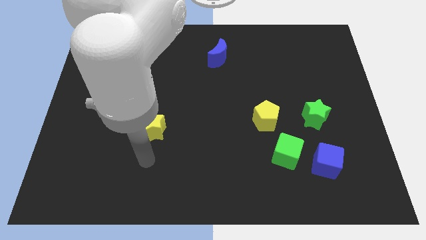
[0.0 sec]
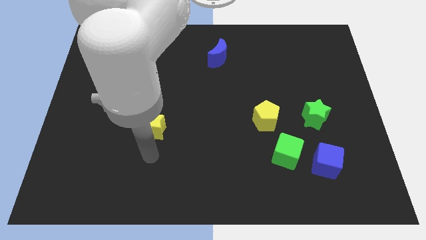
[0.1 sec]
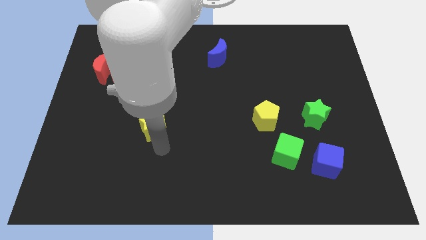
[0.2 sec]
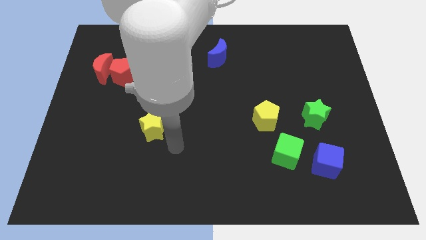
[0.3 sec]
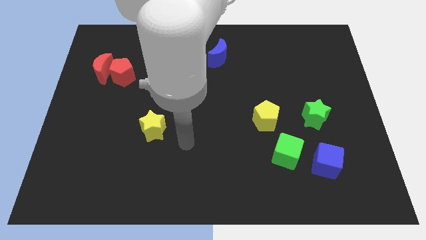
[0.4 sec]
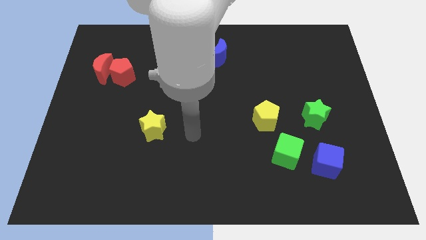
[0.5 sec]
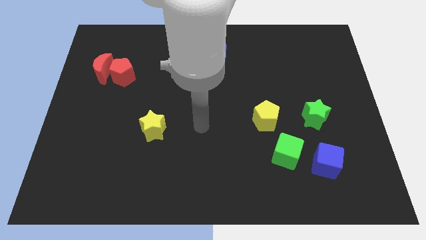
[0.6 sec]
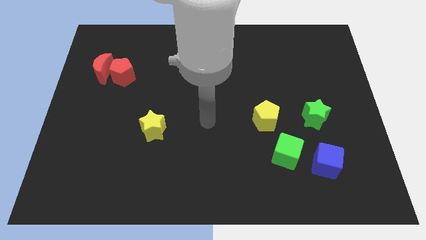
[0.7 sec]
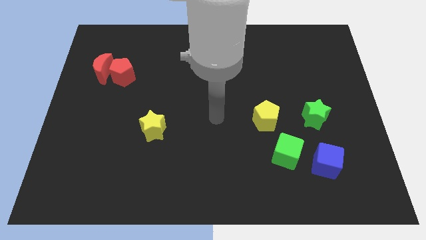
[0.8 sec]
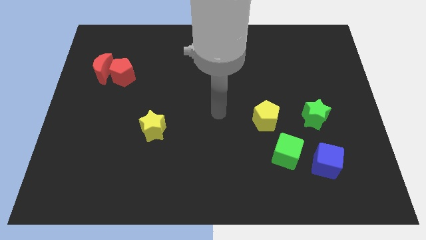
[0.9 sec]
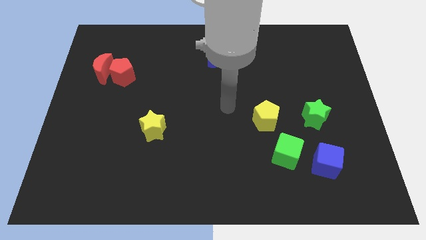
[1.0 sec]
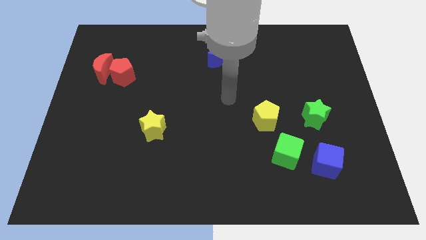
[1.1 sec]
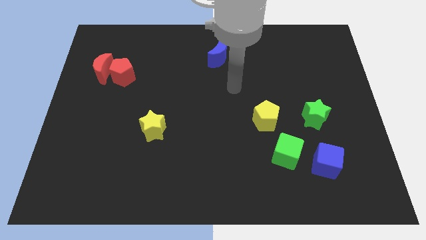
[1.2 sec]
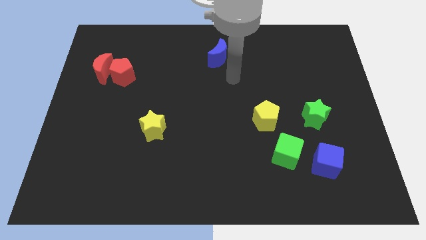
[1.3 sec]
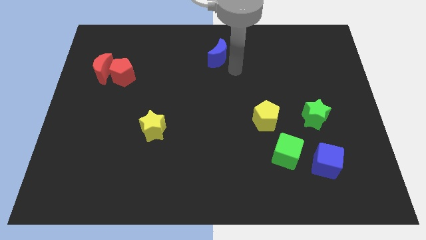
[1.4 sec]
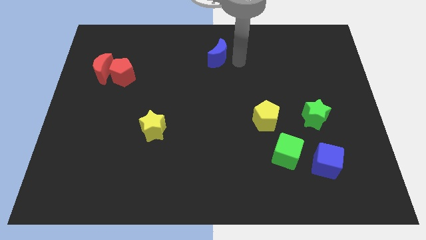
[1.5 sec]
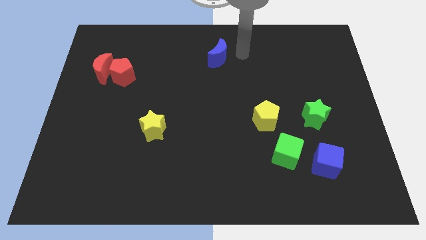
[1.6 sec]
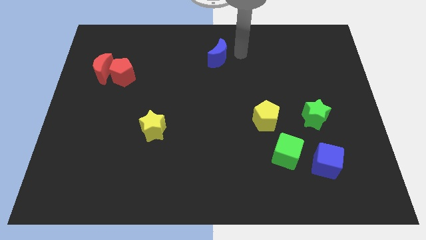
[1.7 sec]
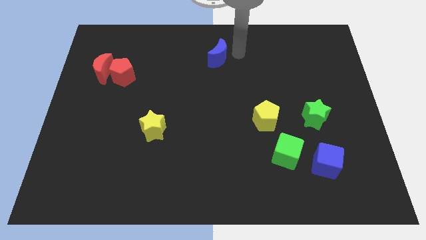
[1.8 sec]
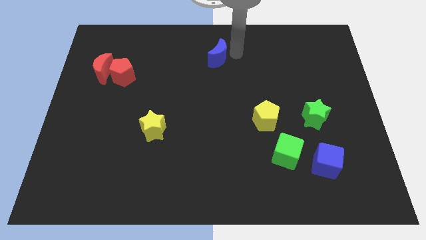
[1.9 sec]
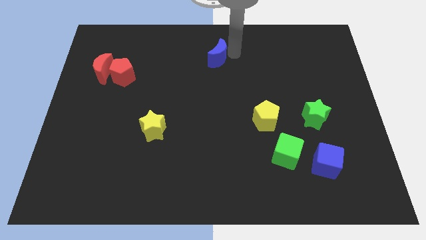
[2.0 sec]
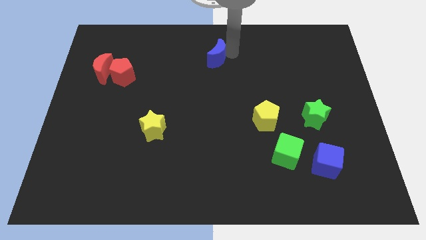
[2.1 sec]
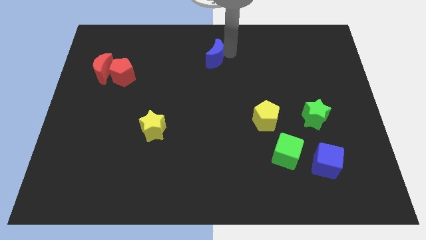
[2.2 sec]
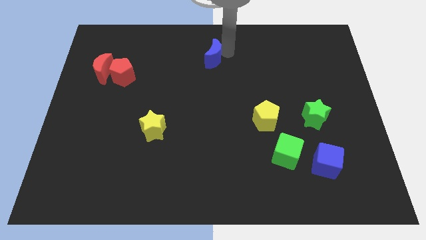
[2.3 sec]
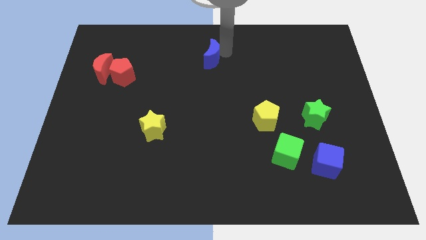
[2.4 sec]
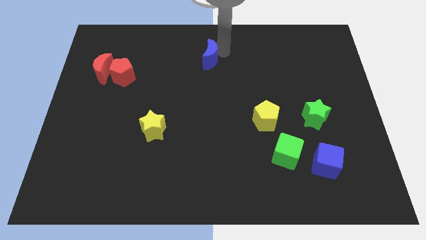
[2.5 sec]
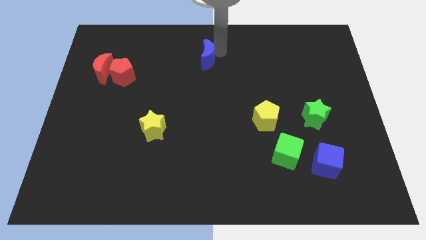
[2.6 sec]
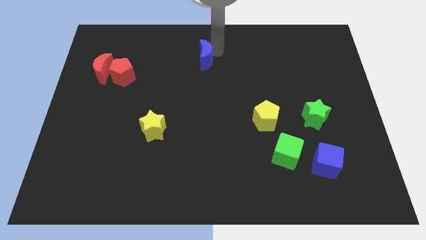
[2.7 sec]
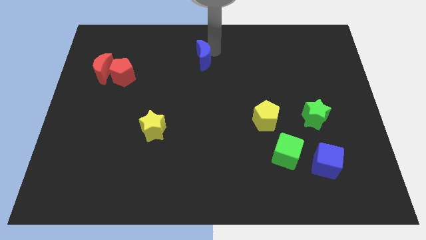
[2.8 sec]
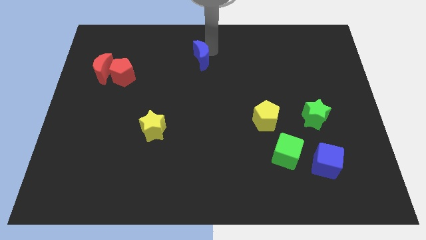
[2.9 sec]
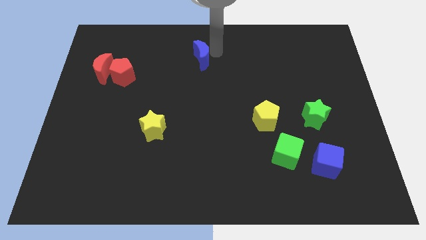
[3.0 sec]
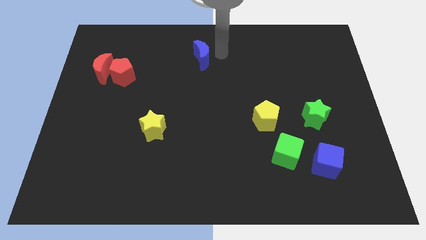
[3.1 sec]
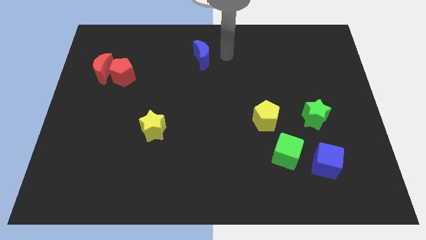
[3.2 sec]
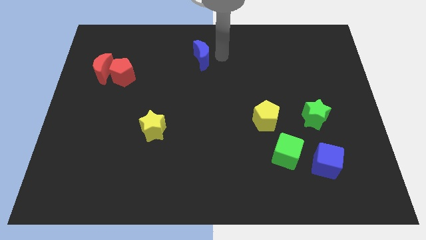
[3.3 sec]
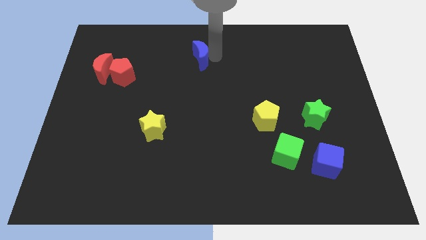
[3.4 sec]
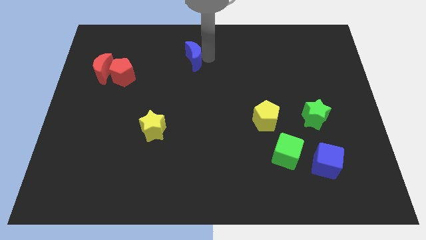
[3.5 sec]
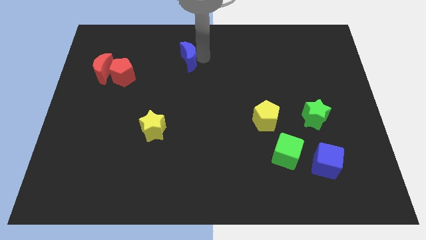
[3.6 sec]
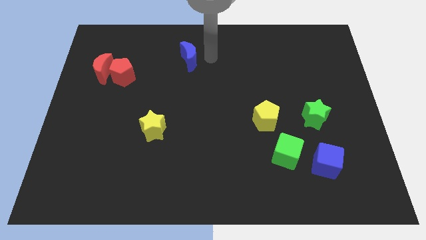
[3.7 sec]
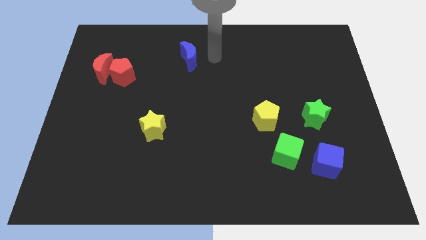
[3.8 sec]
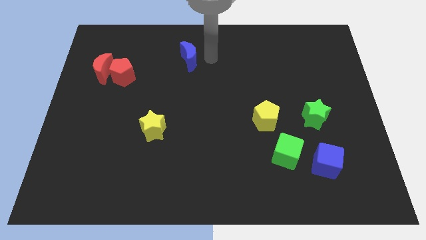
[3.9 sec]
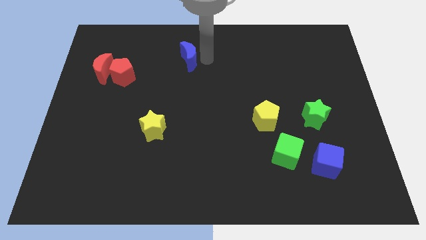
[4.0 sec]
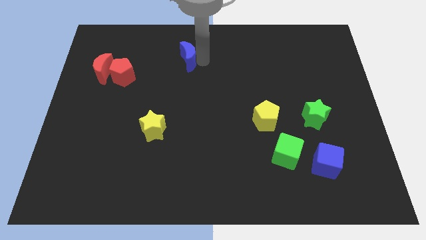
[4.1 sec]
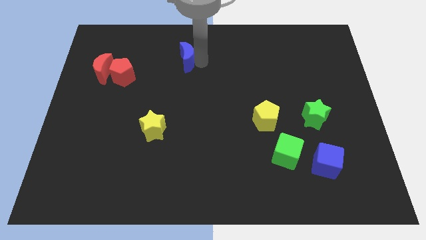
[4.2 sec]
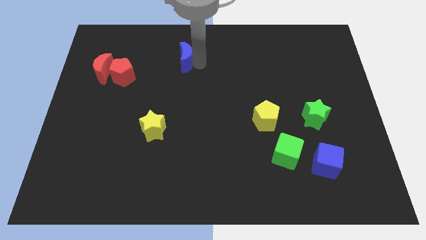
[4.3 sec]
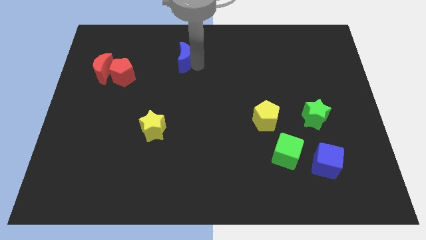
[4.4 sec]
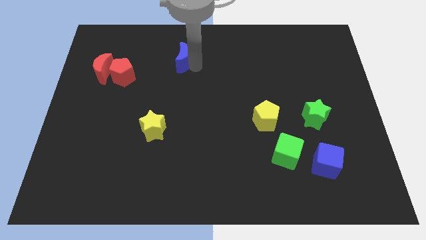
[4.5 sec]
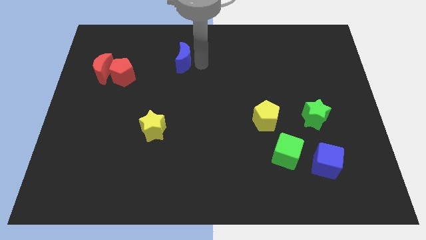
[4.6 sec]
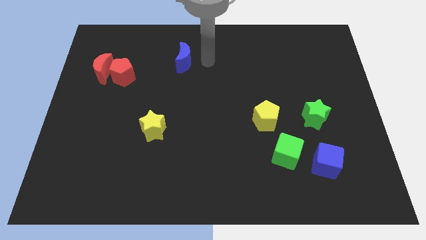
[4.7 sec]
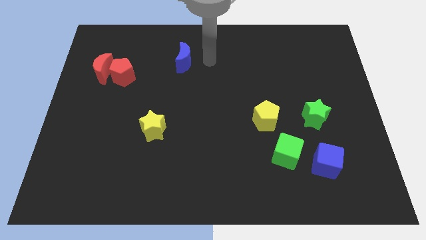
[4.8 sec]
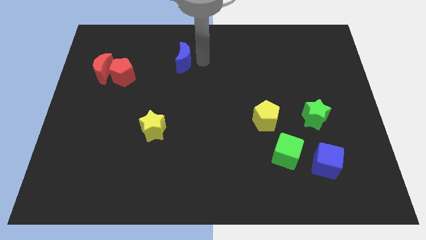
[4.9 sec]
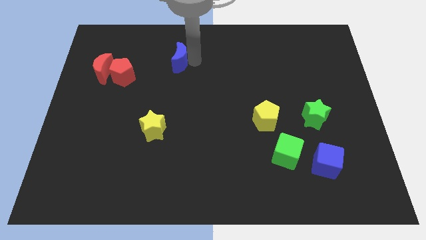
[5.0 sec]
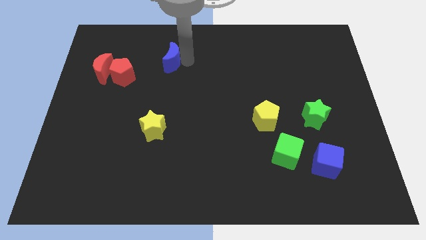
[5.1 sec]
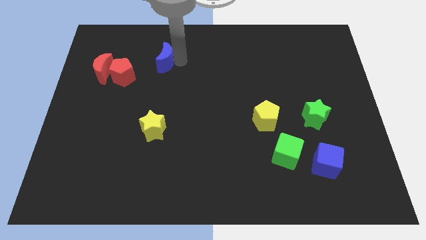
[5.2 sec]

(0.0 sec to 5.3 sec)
move the blue moon to the top right side of the red pentagon

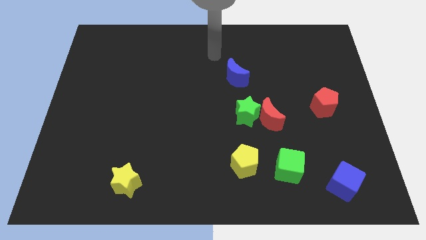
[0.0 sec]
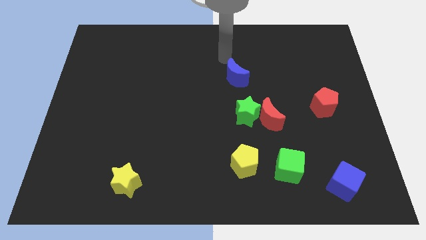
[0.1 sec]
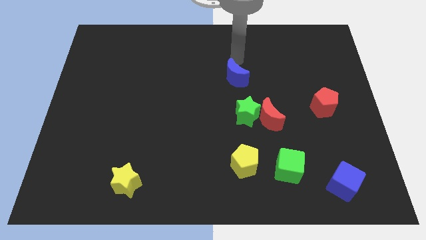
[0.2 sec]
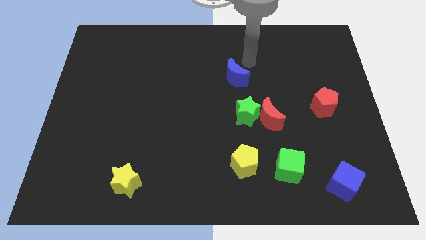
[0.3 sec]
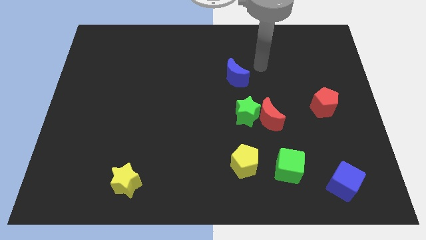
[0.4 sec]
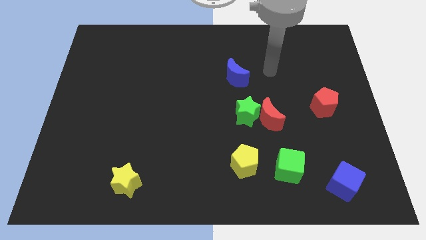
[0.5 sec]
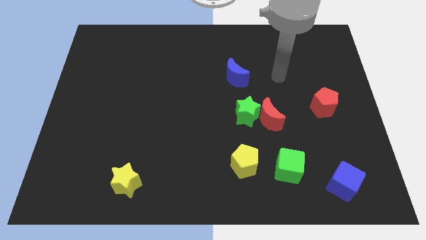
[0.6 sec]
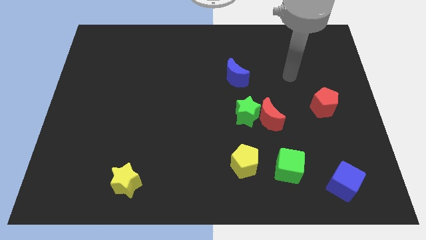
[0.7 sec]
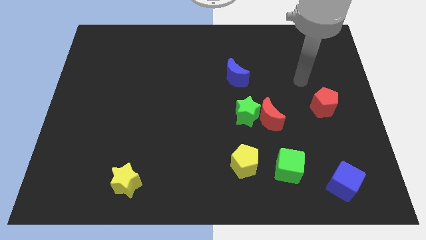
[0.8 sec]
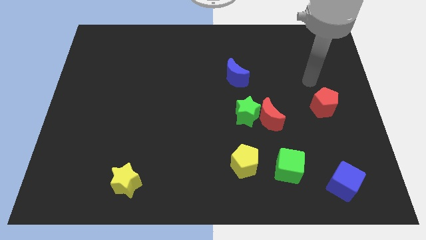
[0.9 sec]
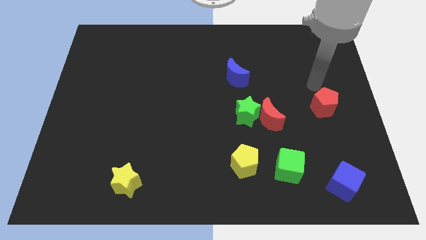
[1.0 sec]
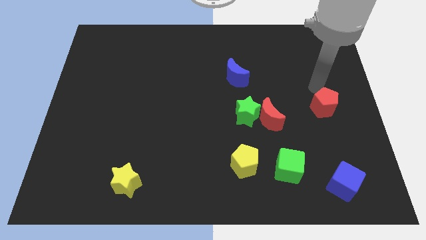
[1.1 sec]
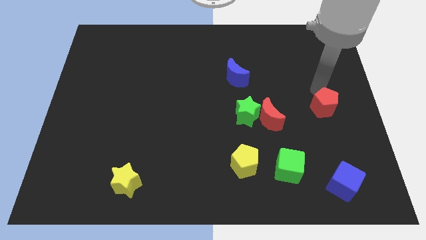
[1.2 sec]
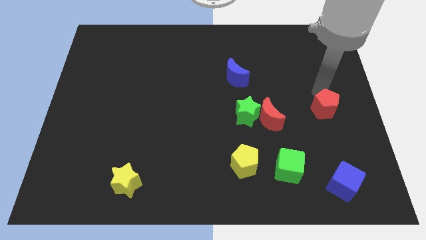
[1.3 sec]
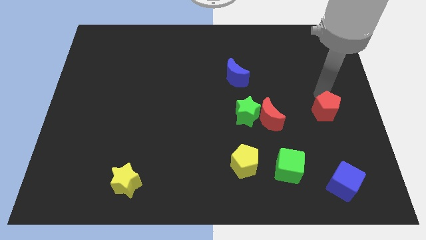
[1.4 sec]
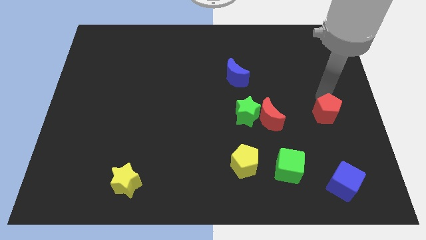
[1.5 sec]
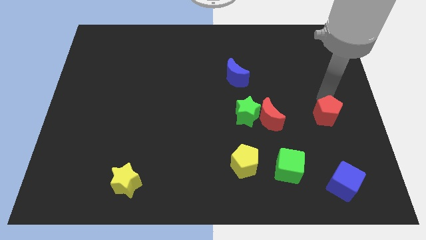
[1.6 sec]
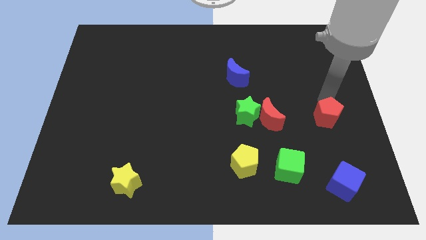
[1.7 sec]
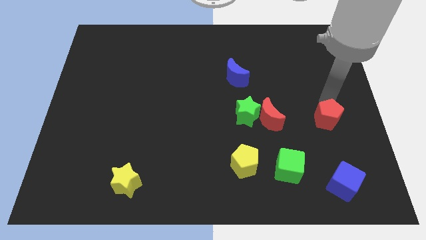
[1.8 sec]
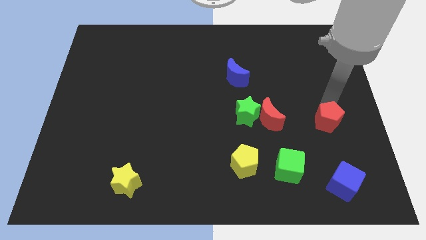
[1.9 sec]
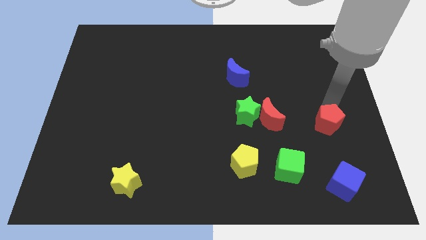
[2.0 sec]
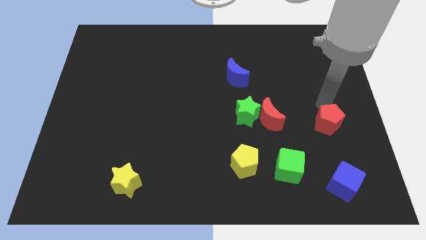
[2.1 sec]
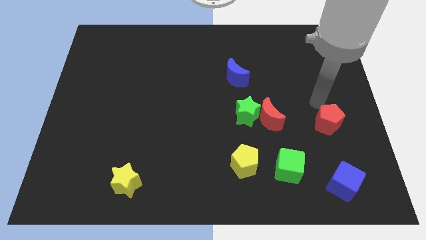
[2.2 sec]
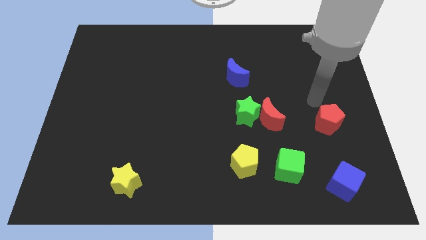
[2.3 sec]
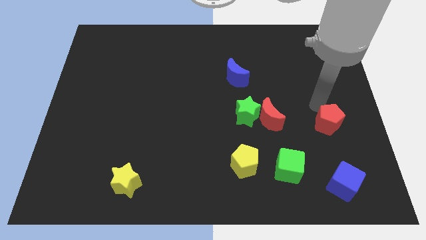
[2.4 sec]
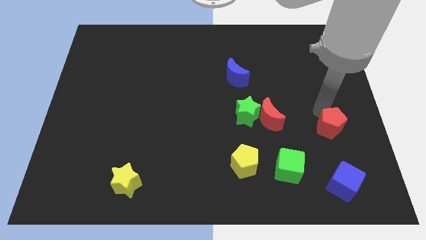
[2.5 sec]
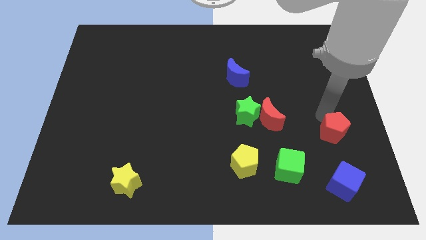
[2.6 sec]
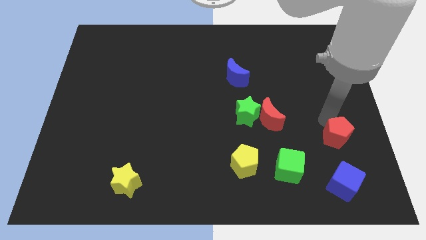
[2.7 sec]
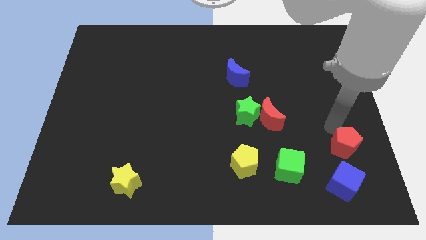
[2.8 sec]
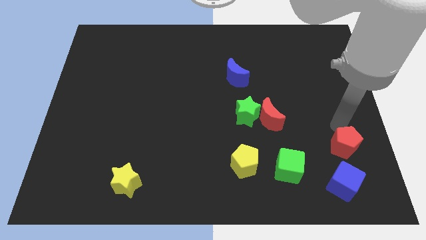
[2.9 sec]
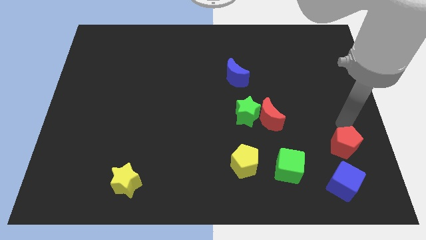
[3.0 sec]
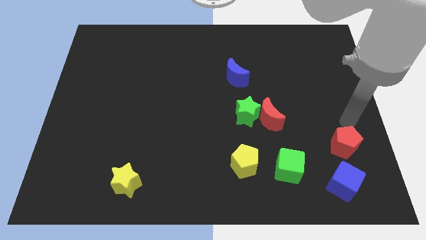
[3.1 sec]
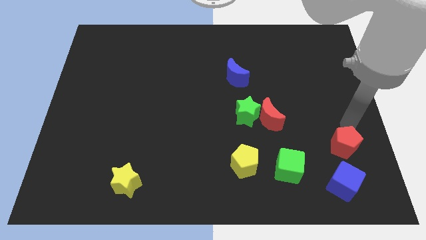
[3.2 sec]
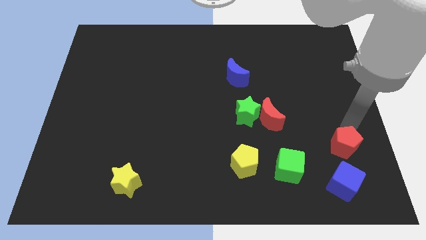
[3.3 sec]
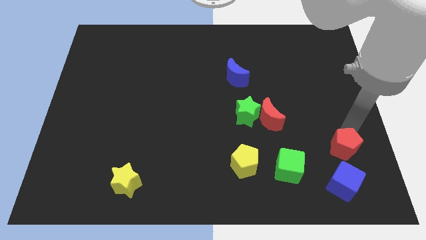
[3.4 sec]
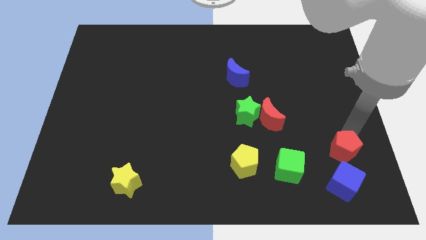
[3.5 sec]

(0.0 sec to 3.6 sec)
slide the red pentagon to the right of the green cube
